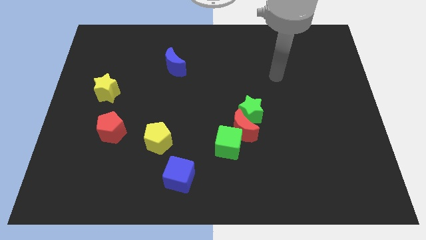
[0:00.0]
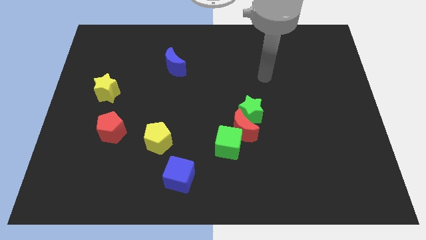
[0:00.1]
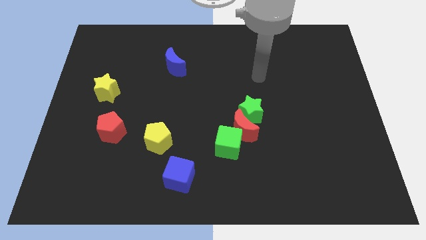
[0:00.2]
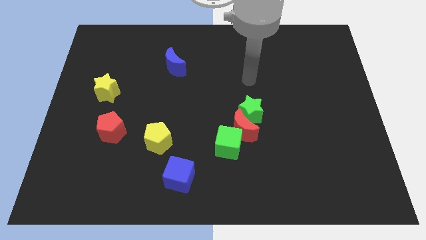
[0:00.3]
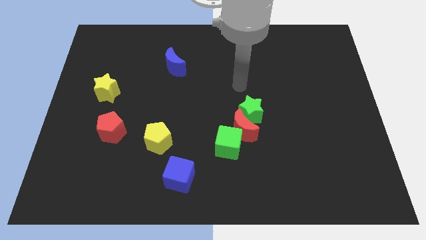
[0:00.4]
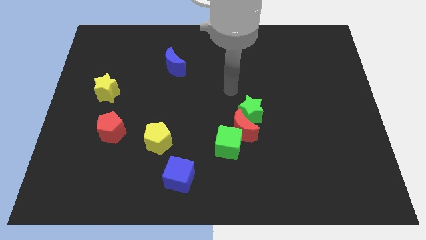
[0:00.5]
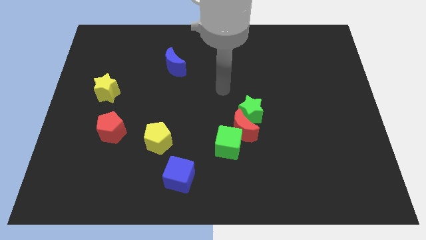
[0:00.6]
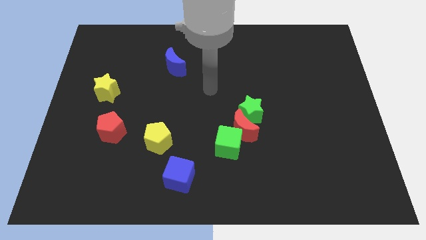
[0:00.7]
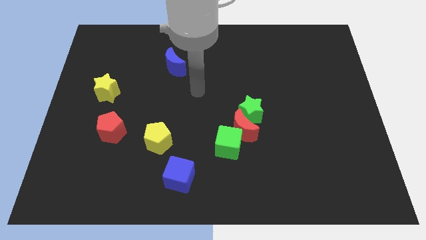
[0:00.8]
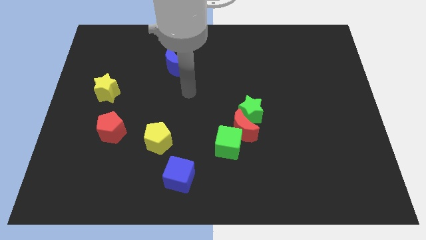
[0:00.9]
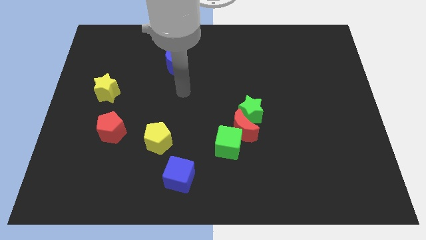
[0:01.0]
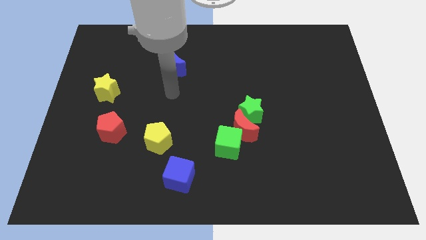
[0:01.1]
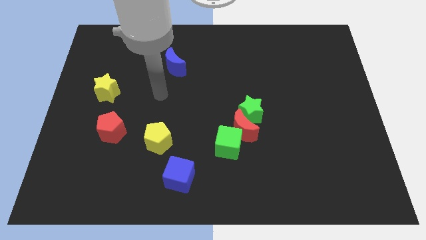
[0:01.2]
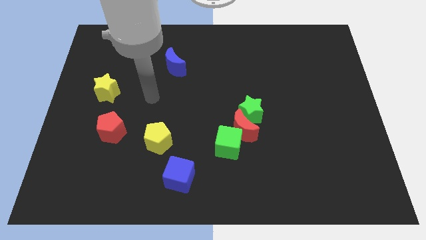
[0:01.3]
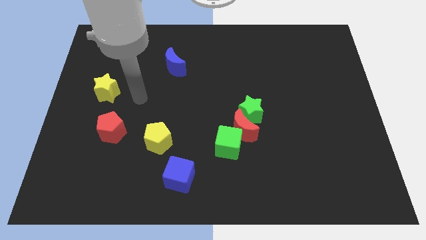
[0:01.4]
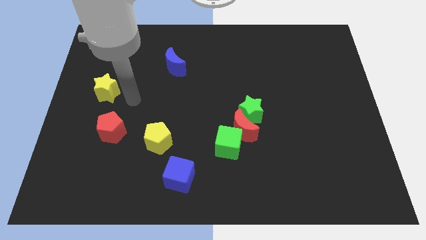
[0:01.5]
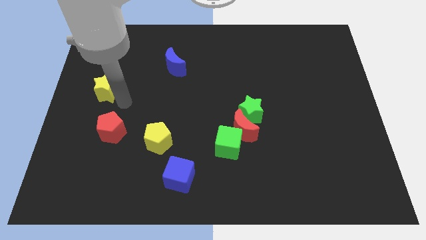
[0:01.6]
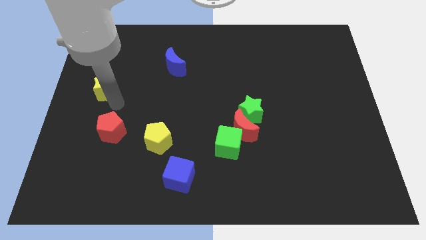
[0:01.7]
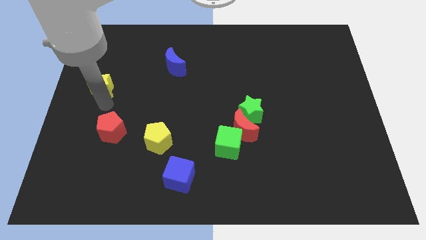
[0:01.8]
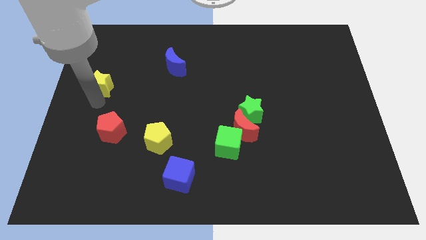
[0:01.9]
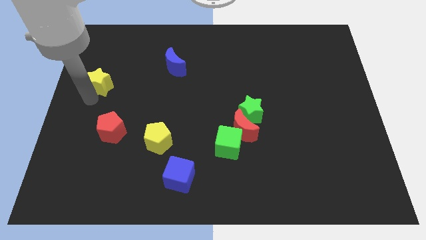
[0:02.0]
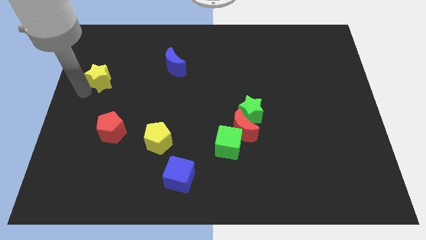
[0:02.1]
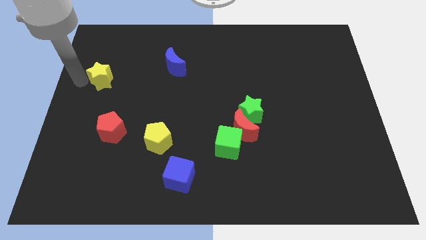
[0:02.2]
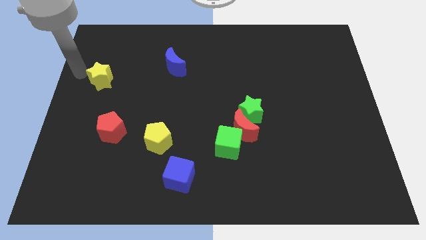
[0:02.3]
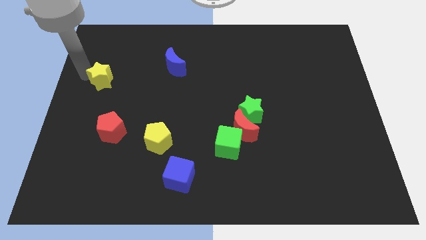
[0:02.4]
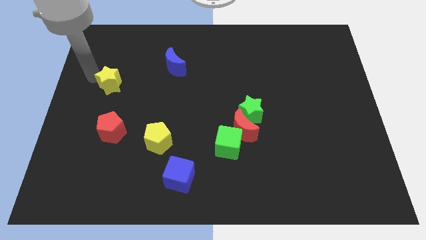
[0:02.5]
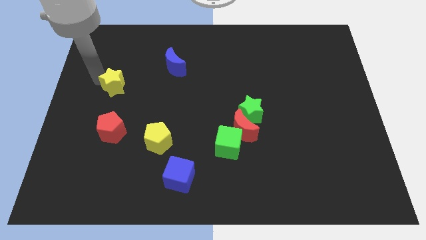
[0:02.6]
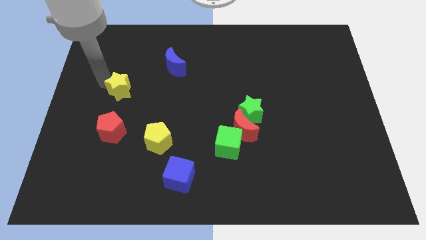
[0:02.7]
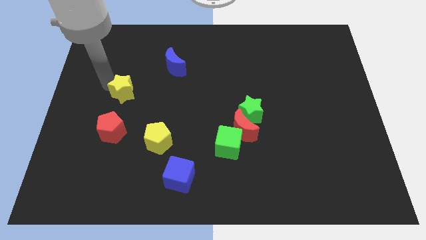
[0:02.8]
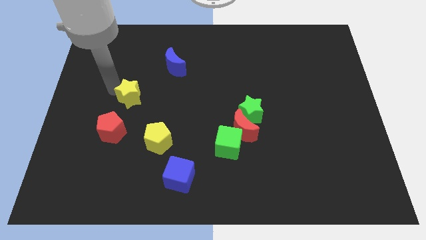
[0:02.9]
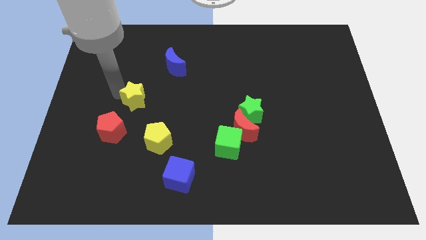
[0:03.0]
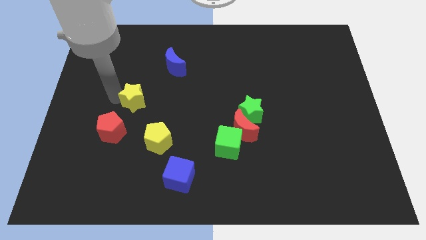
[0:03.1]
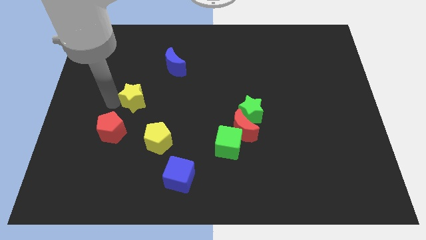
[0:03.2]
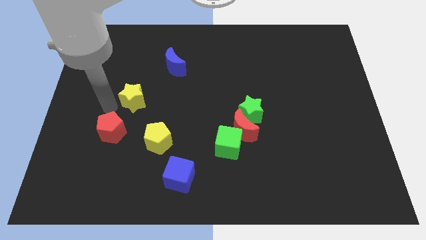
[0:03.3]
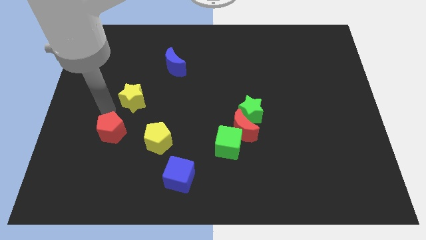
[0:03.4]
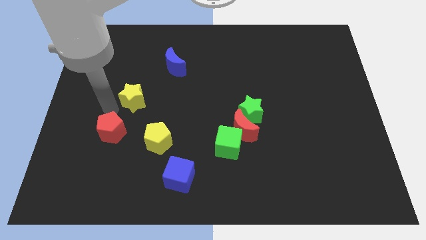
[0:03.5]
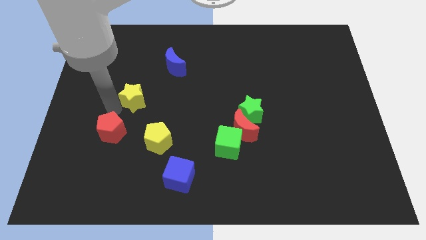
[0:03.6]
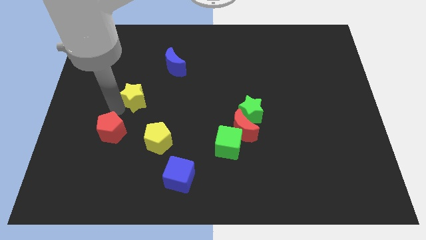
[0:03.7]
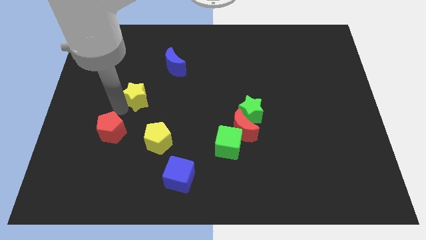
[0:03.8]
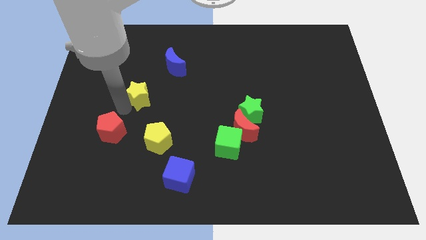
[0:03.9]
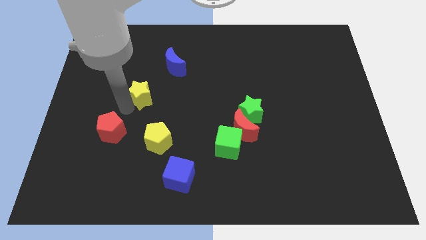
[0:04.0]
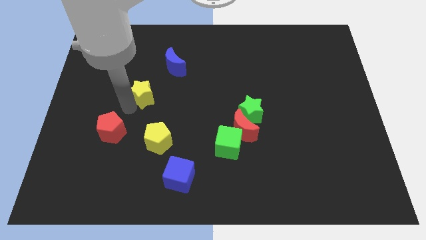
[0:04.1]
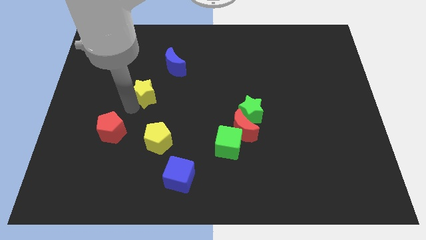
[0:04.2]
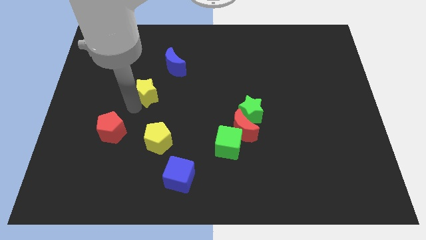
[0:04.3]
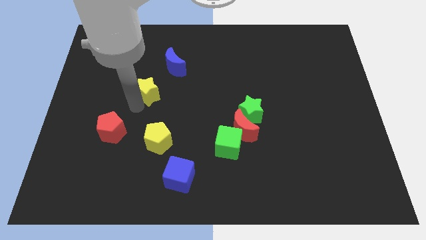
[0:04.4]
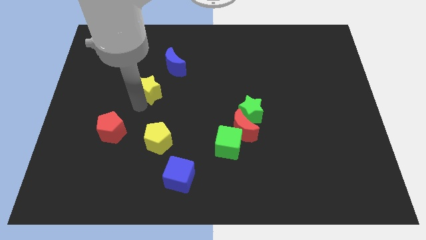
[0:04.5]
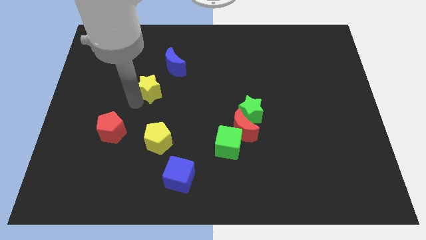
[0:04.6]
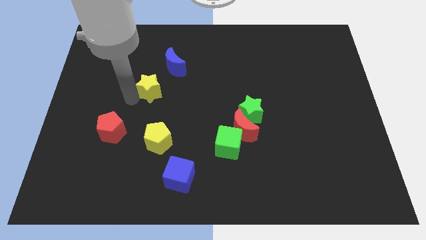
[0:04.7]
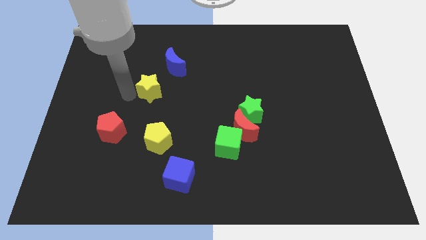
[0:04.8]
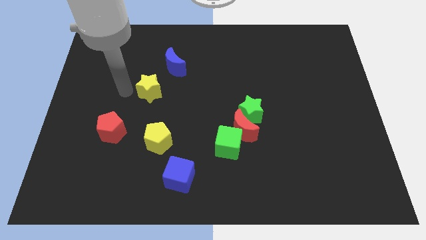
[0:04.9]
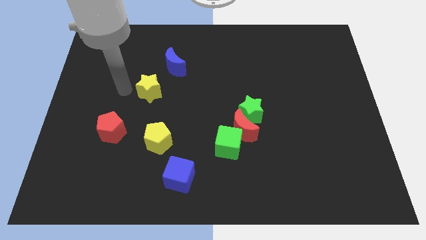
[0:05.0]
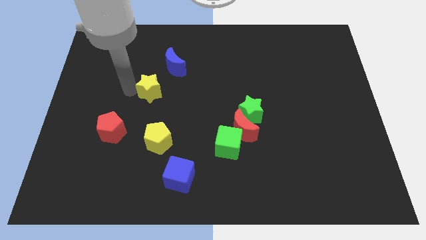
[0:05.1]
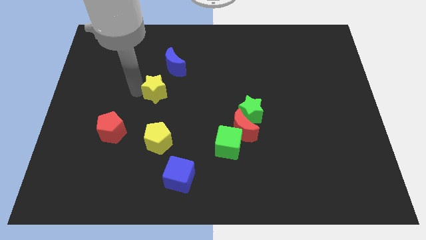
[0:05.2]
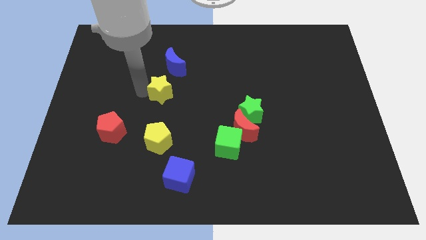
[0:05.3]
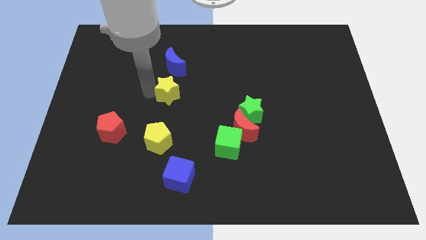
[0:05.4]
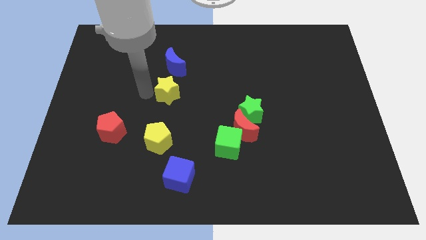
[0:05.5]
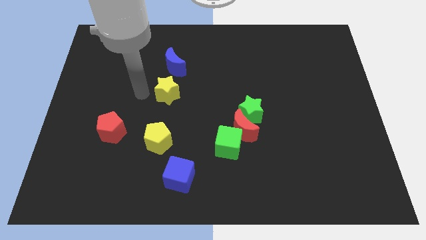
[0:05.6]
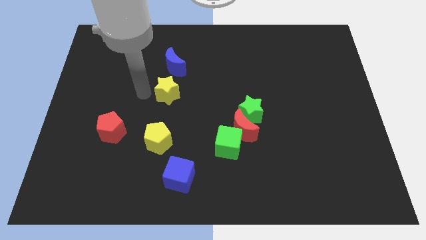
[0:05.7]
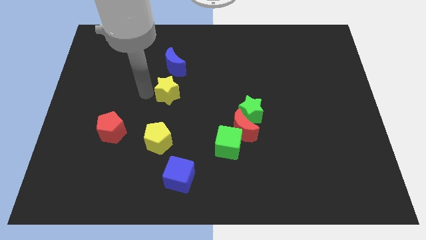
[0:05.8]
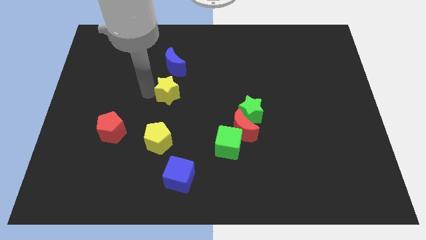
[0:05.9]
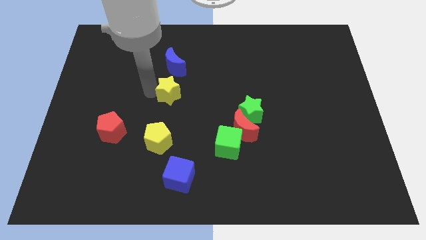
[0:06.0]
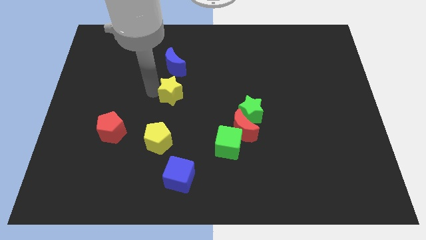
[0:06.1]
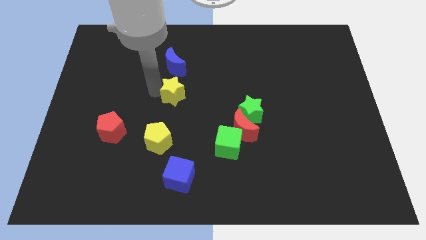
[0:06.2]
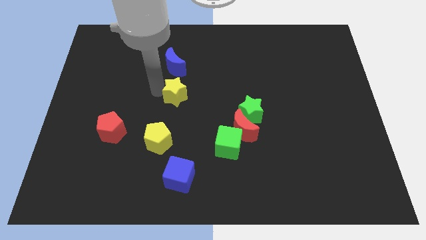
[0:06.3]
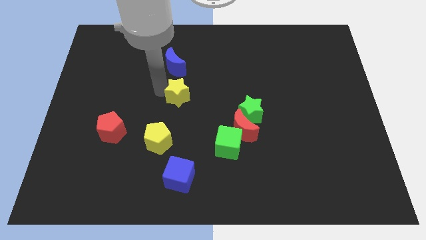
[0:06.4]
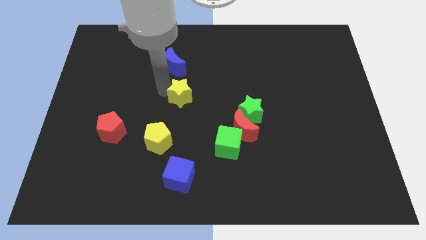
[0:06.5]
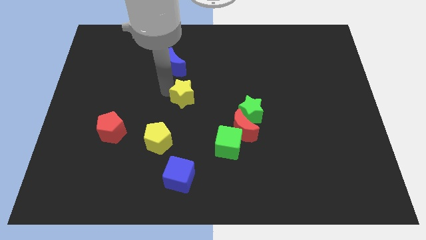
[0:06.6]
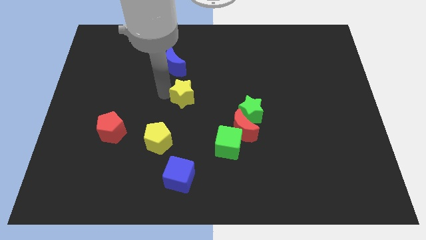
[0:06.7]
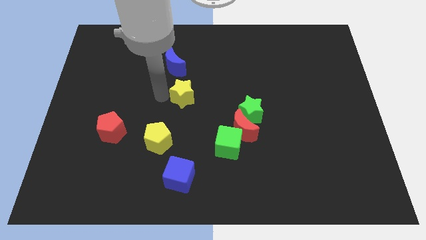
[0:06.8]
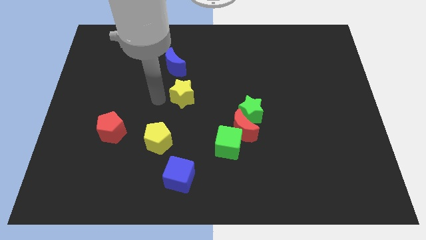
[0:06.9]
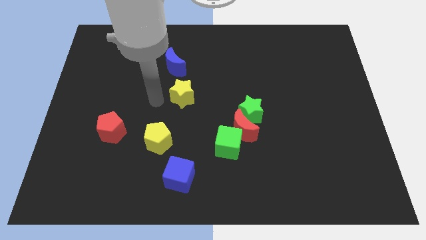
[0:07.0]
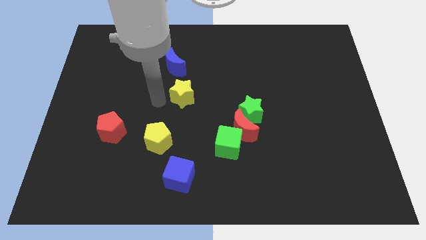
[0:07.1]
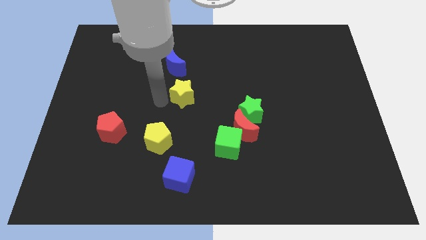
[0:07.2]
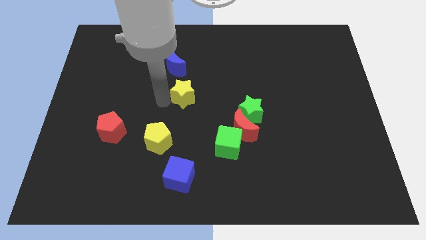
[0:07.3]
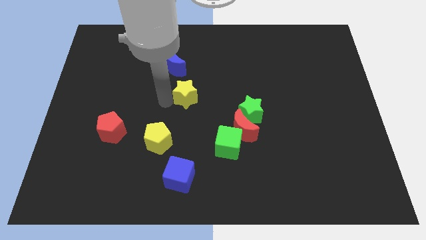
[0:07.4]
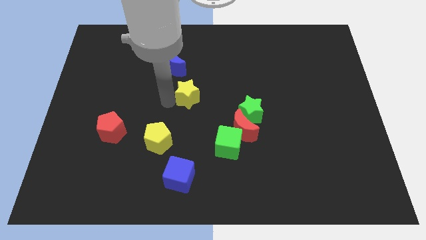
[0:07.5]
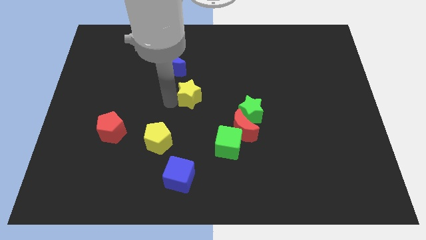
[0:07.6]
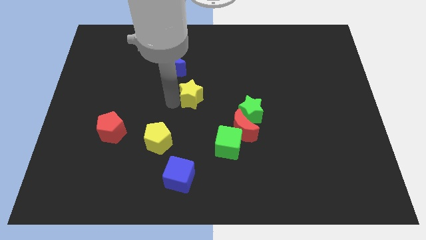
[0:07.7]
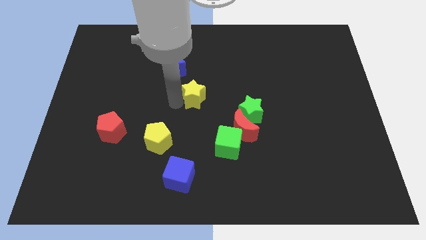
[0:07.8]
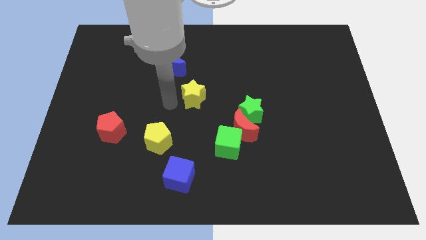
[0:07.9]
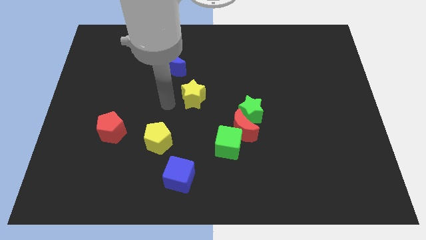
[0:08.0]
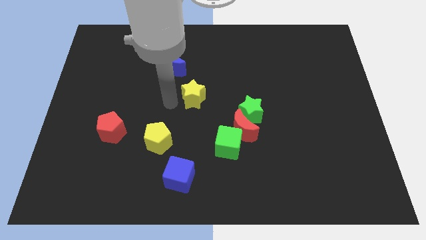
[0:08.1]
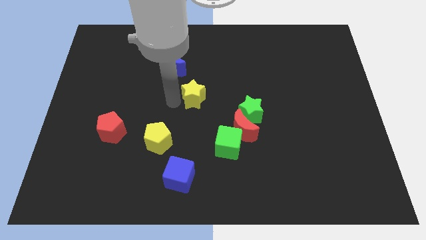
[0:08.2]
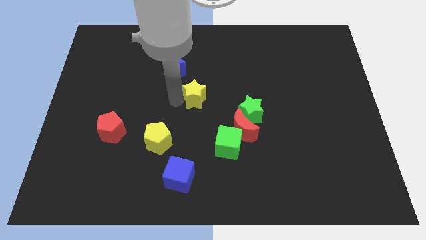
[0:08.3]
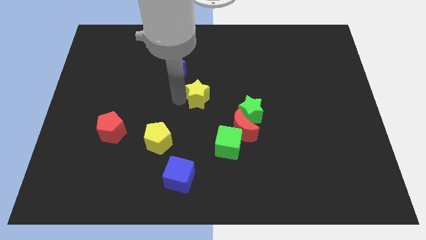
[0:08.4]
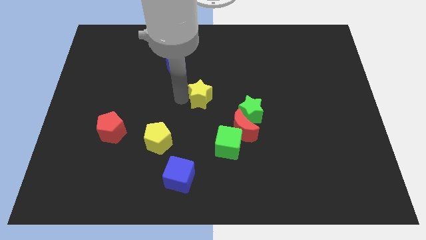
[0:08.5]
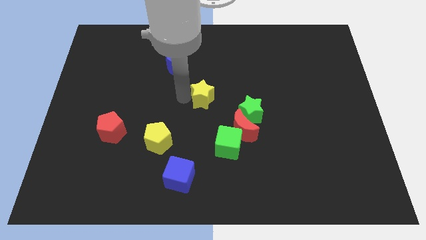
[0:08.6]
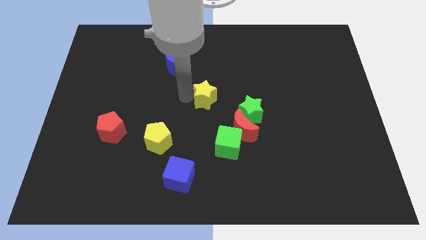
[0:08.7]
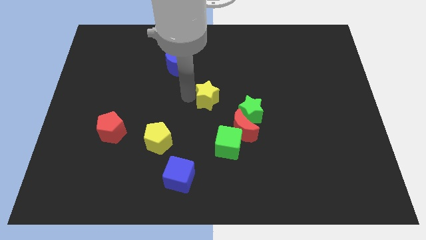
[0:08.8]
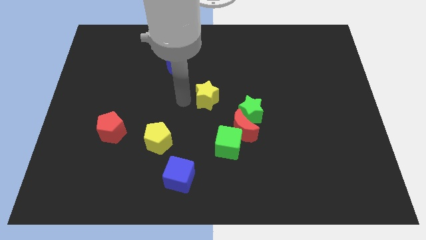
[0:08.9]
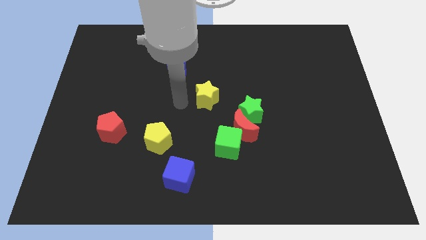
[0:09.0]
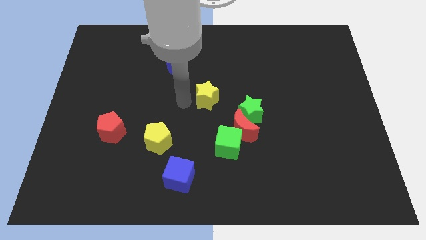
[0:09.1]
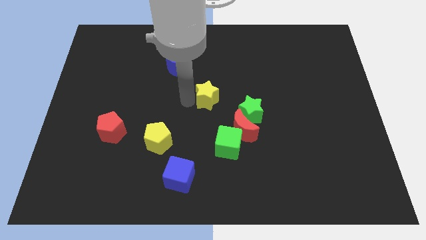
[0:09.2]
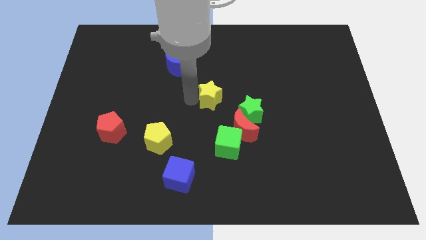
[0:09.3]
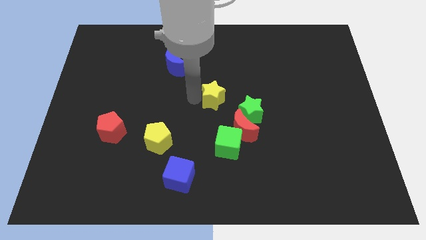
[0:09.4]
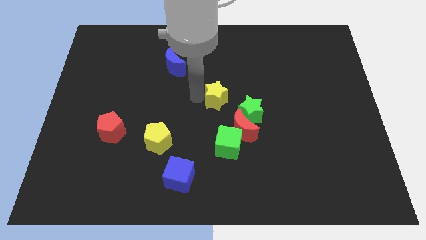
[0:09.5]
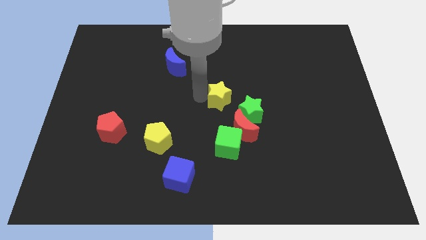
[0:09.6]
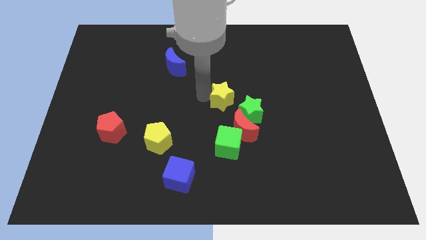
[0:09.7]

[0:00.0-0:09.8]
move the yellow star to the top of the red moon
